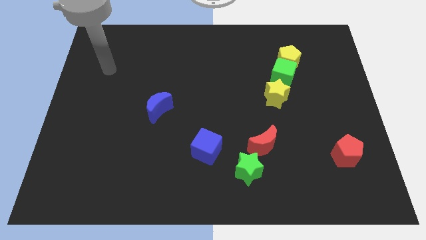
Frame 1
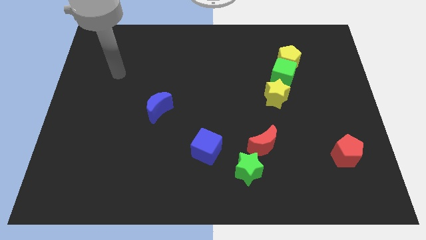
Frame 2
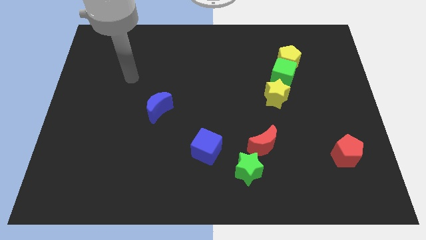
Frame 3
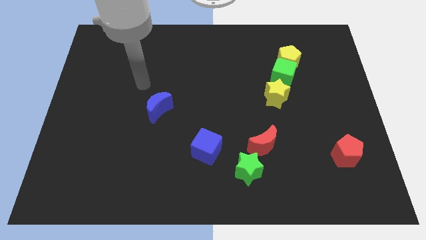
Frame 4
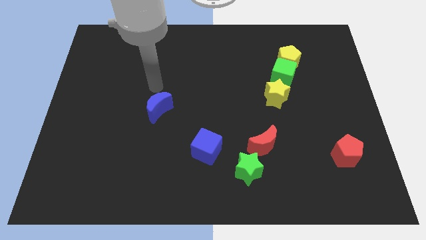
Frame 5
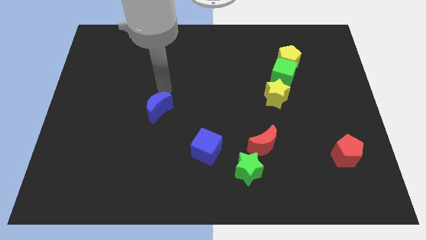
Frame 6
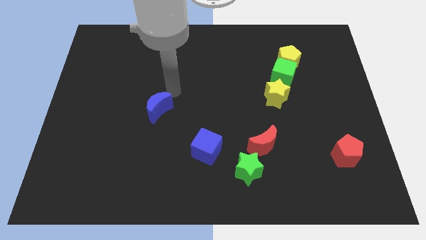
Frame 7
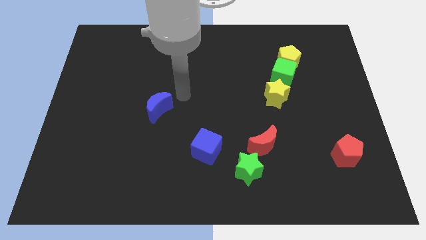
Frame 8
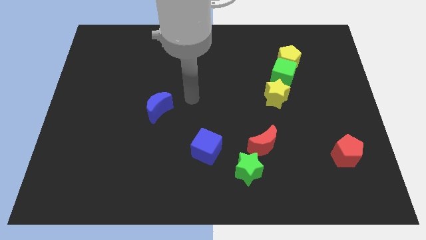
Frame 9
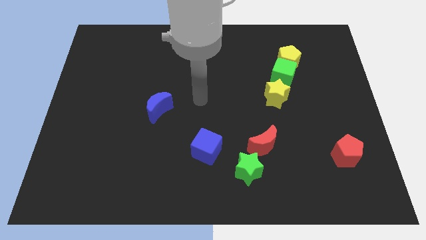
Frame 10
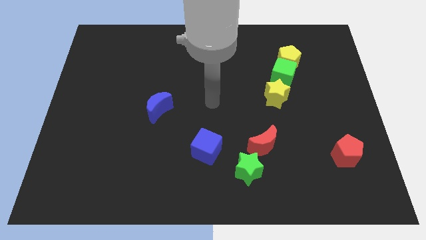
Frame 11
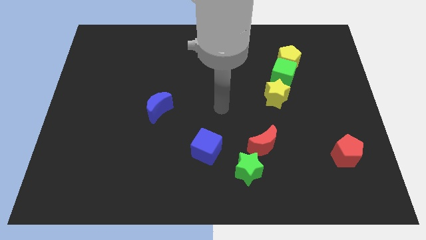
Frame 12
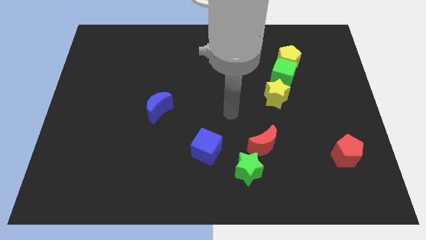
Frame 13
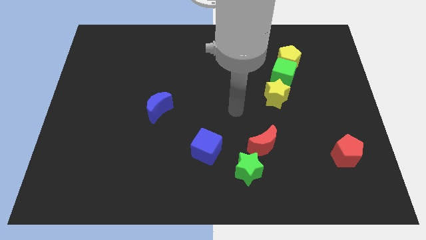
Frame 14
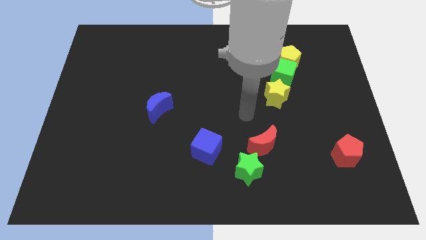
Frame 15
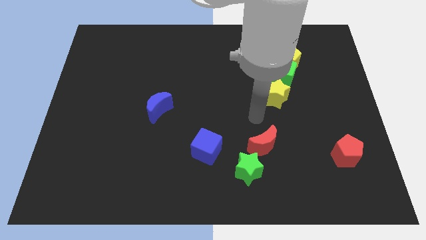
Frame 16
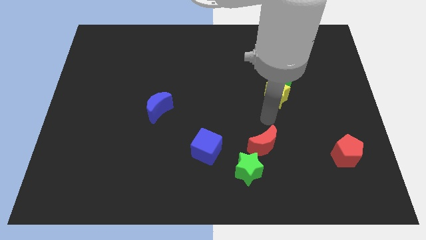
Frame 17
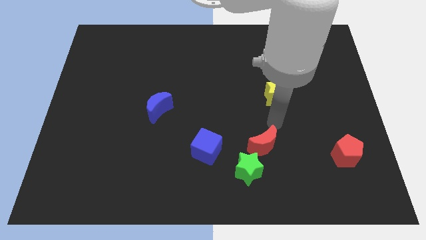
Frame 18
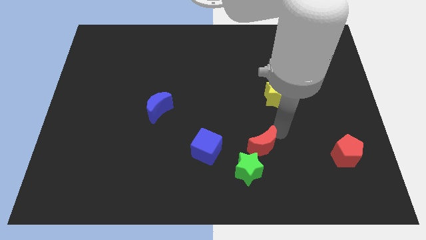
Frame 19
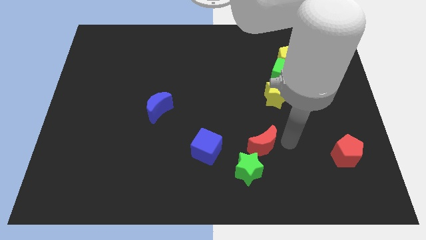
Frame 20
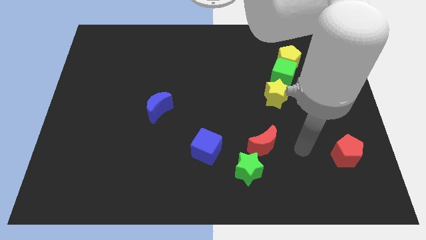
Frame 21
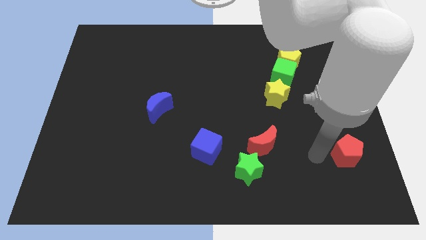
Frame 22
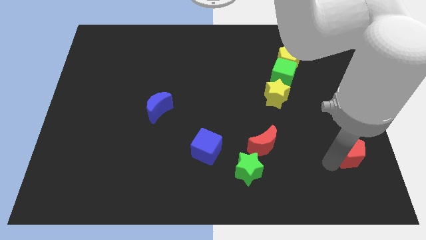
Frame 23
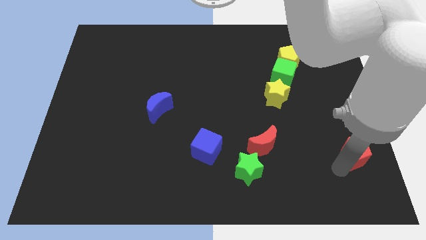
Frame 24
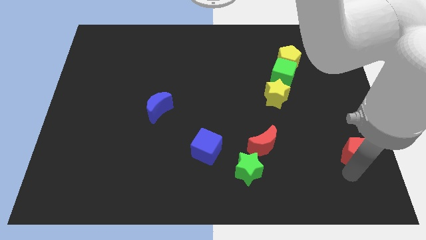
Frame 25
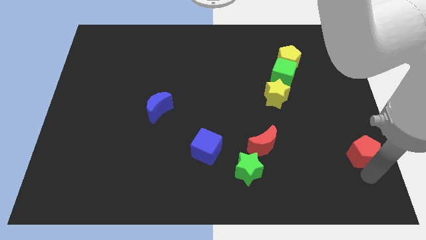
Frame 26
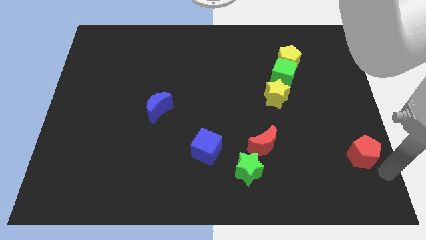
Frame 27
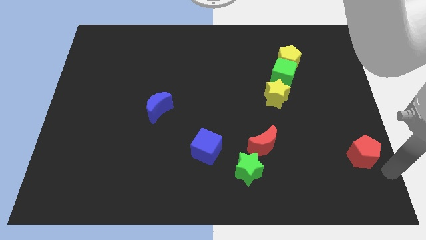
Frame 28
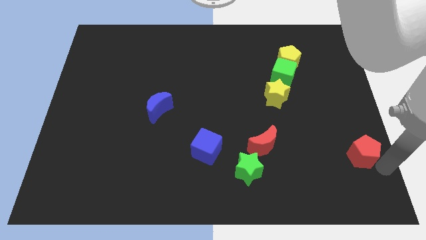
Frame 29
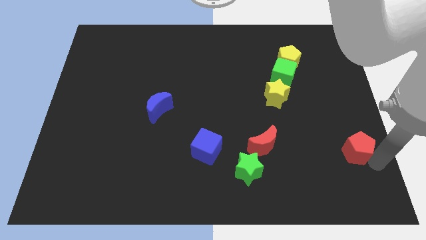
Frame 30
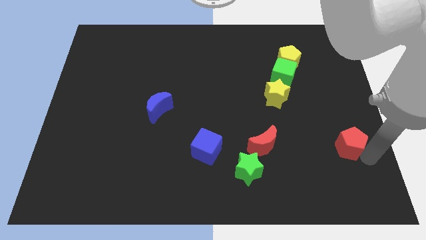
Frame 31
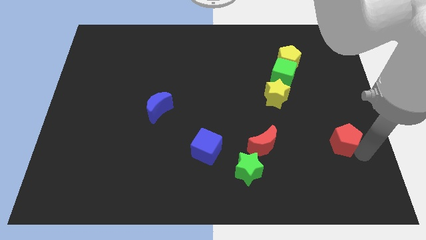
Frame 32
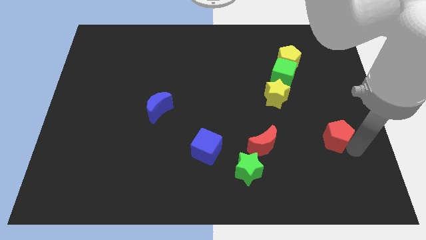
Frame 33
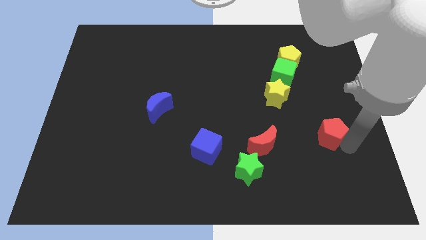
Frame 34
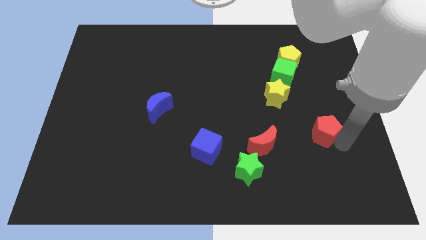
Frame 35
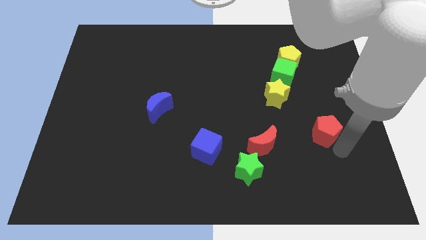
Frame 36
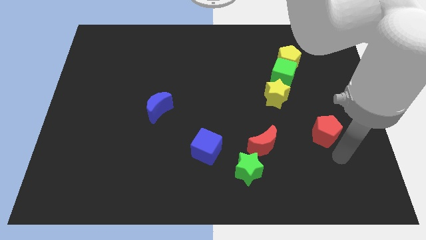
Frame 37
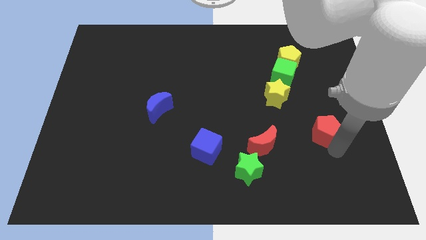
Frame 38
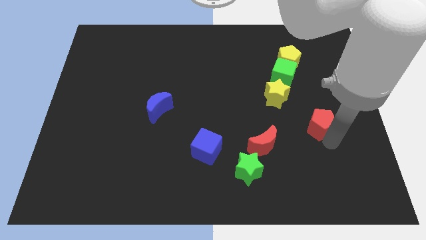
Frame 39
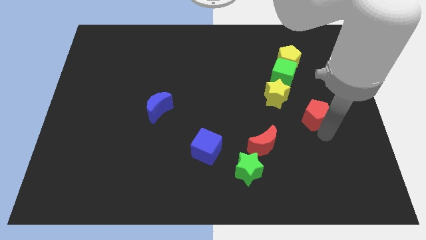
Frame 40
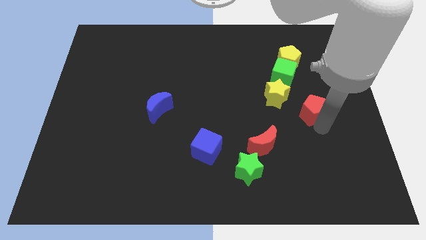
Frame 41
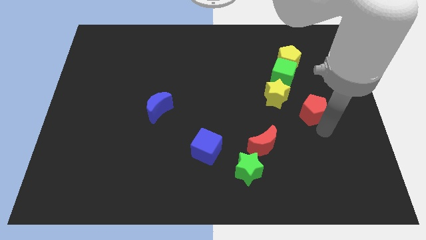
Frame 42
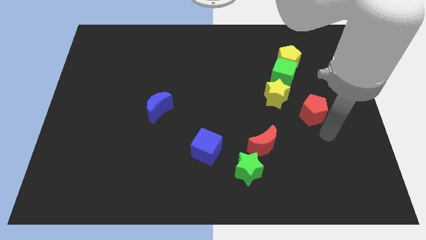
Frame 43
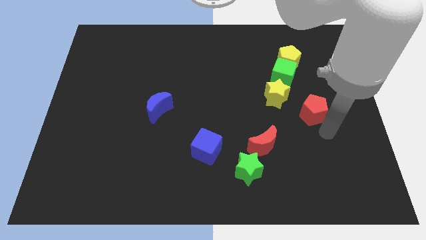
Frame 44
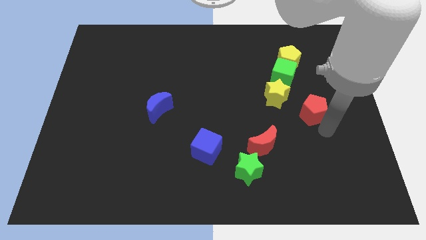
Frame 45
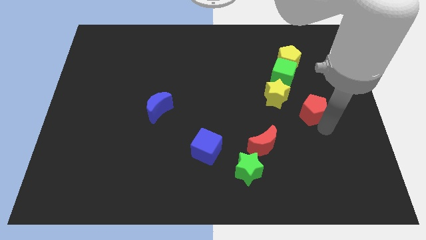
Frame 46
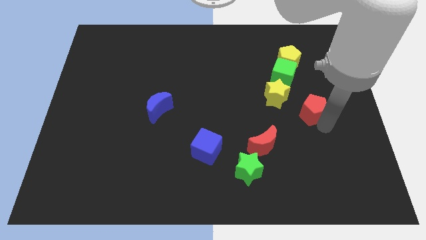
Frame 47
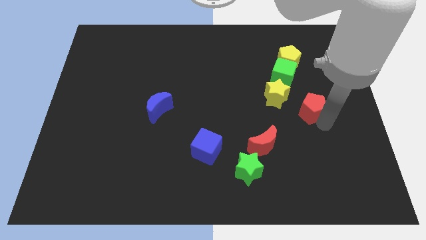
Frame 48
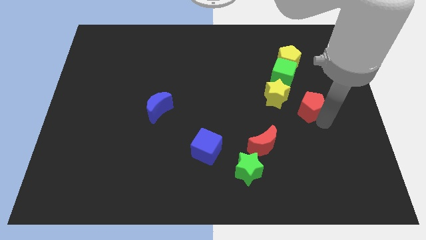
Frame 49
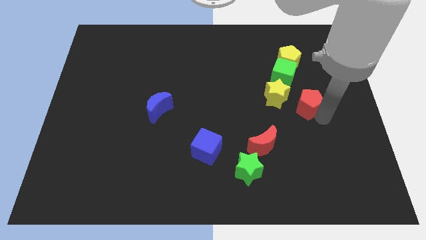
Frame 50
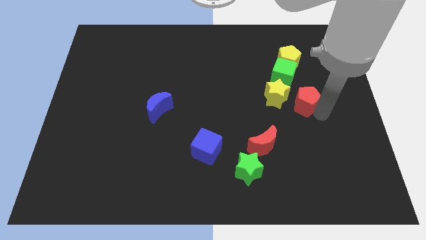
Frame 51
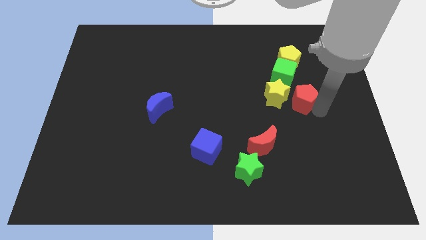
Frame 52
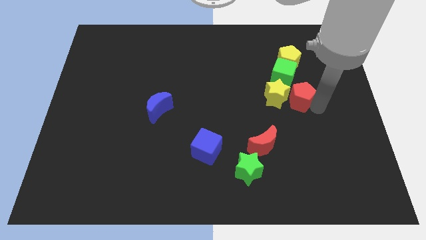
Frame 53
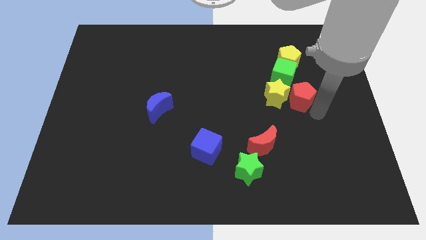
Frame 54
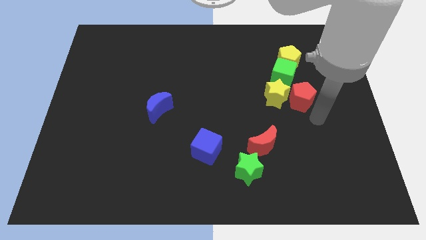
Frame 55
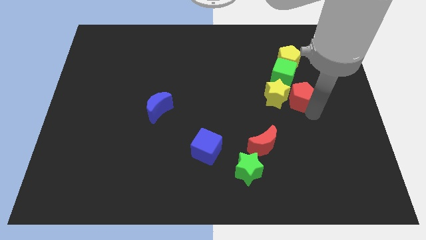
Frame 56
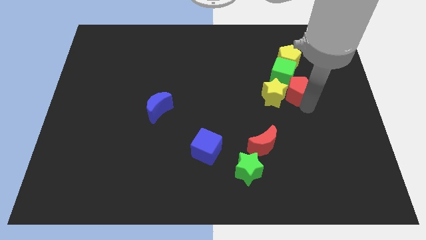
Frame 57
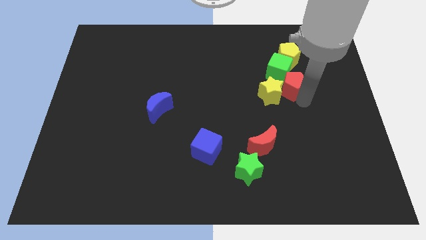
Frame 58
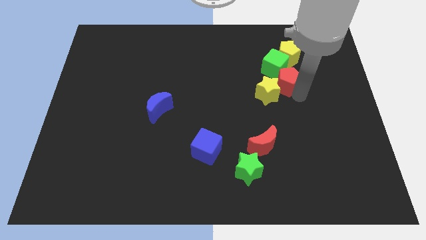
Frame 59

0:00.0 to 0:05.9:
put the red pentagon towards the green cube

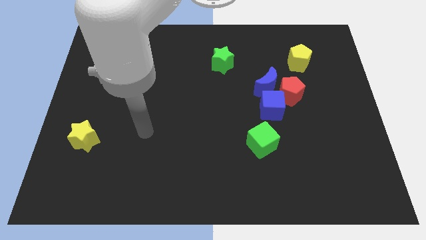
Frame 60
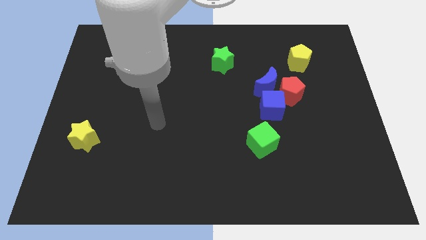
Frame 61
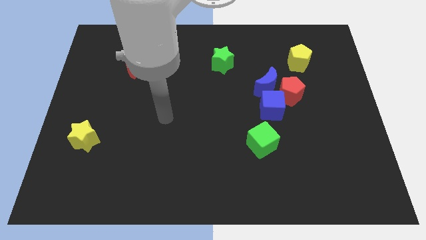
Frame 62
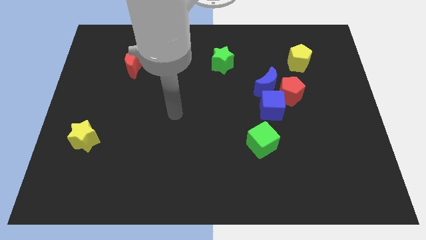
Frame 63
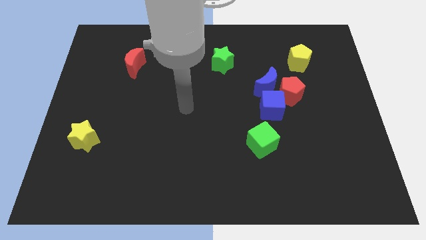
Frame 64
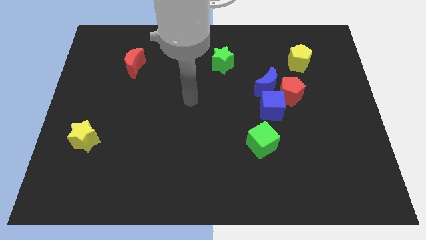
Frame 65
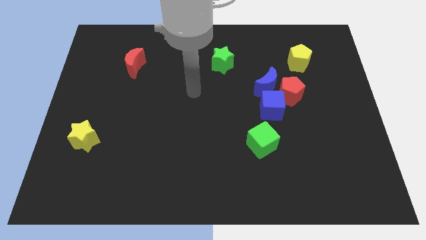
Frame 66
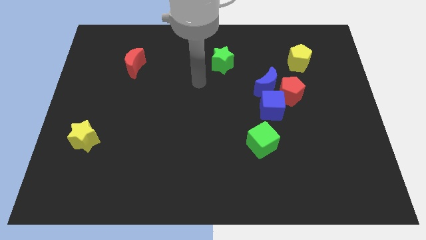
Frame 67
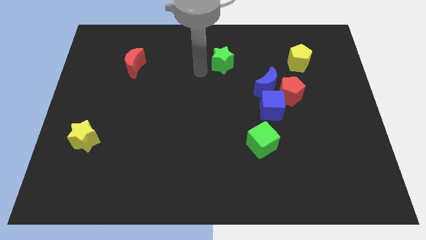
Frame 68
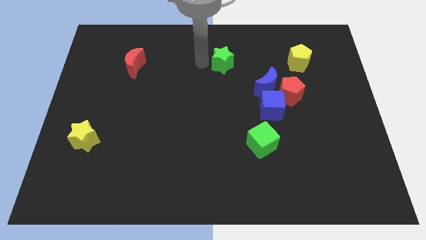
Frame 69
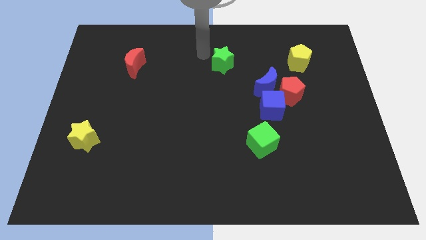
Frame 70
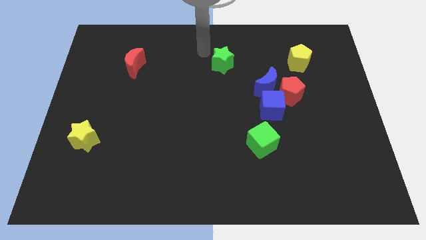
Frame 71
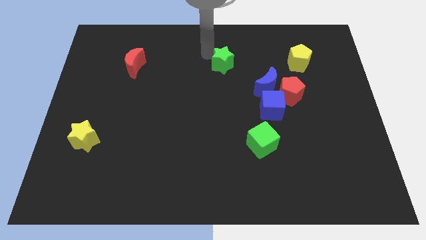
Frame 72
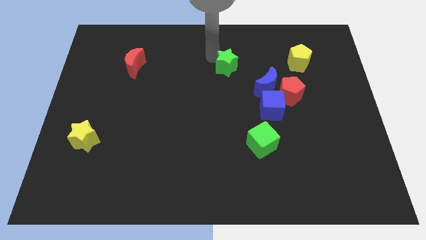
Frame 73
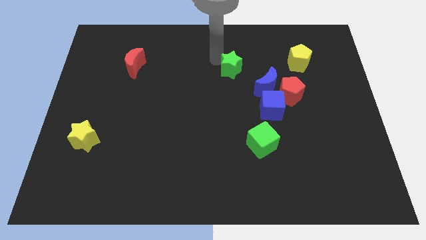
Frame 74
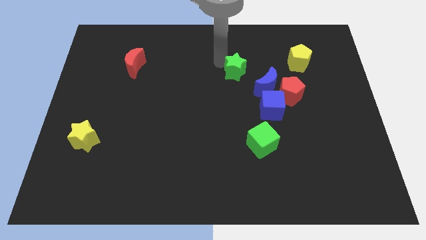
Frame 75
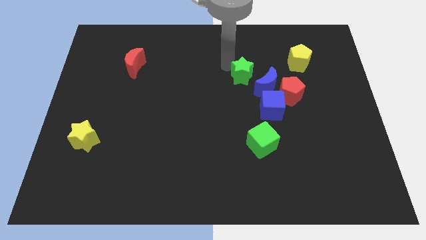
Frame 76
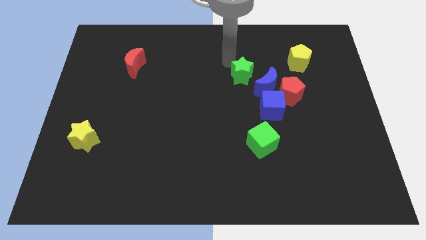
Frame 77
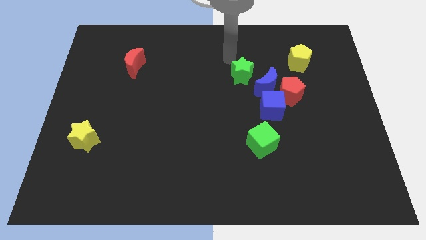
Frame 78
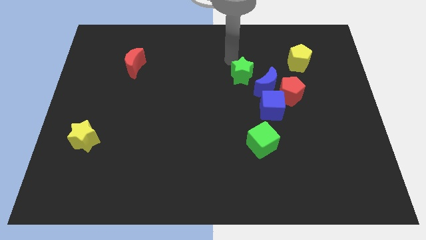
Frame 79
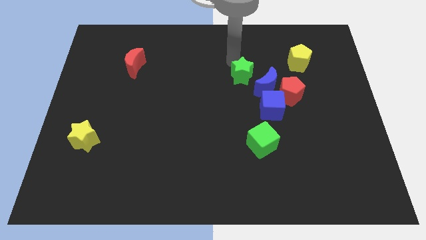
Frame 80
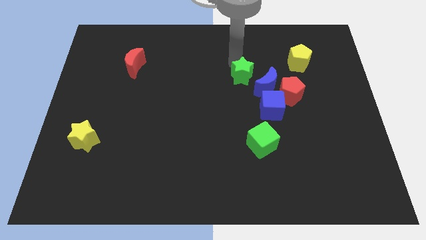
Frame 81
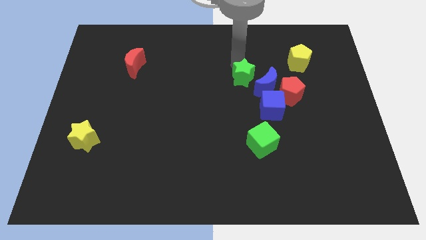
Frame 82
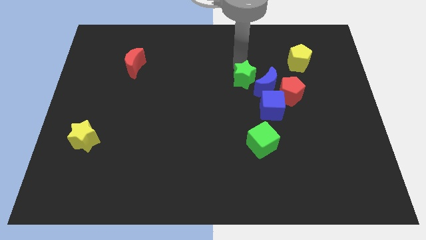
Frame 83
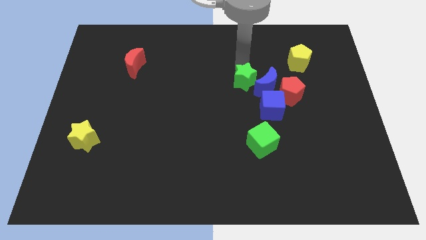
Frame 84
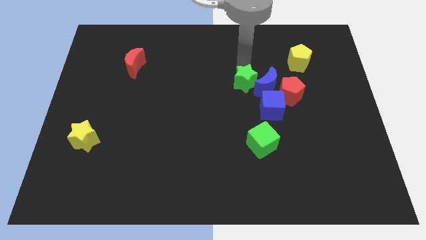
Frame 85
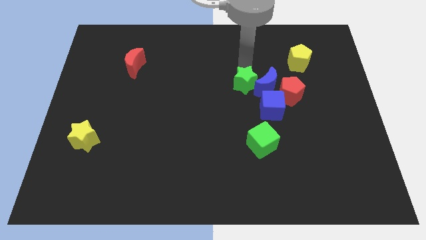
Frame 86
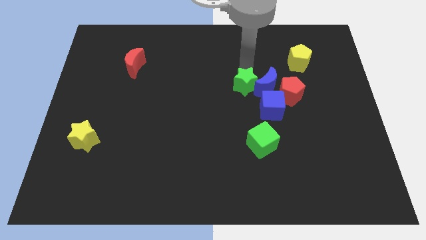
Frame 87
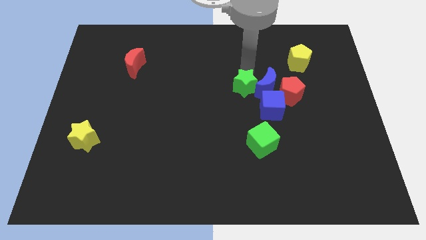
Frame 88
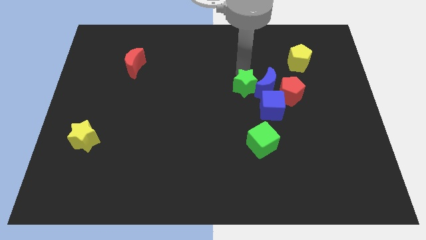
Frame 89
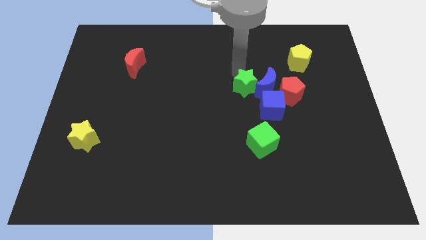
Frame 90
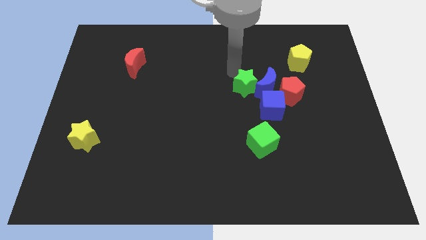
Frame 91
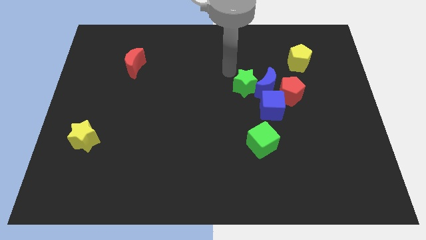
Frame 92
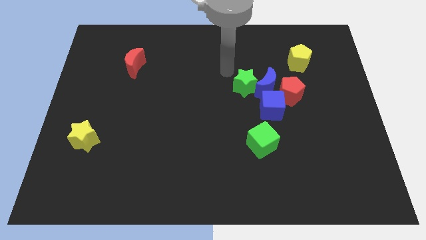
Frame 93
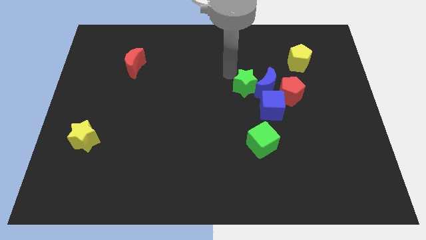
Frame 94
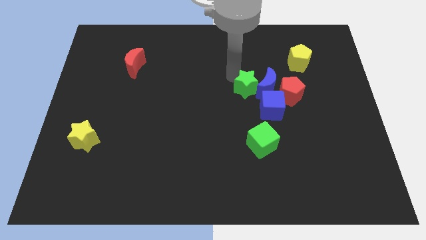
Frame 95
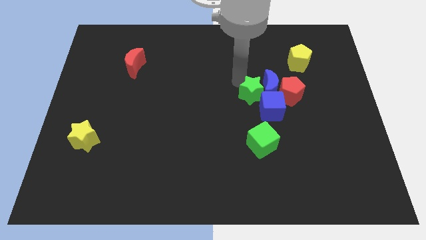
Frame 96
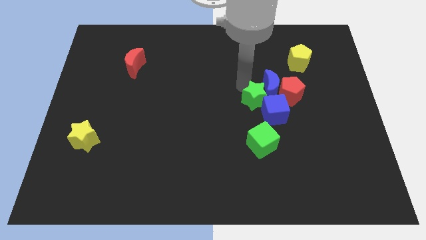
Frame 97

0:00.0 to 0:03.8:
slide the green star towards the blue cube
